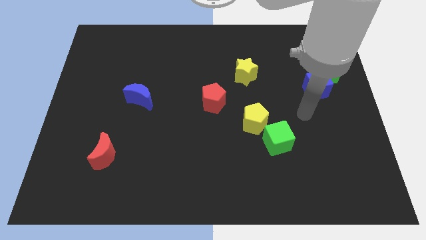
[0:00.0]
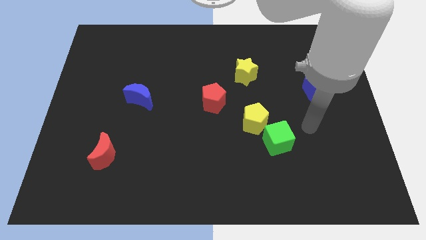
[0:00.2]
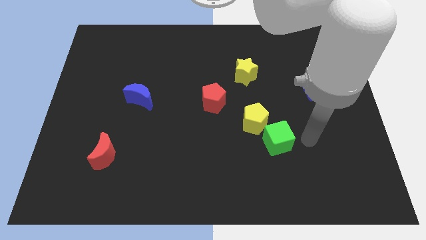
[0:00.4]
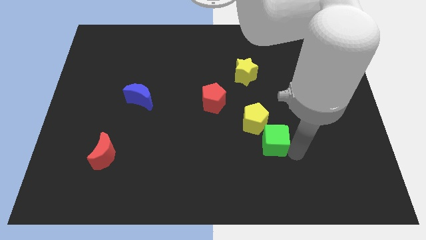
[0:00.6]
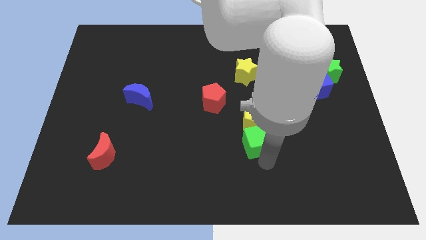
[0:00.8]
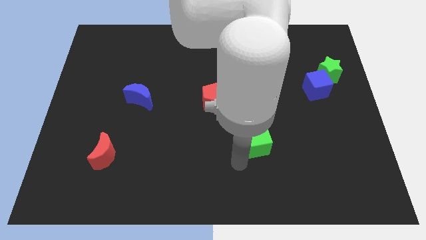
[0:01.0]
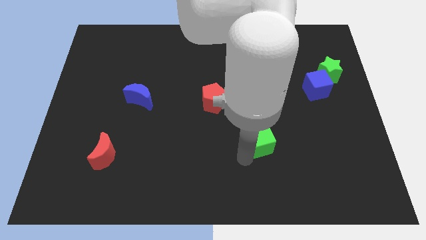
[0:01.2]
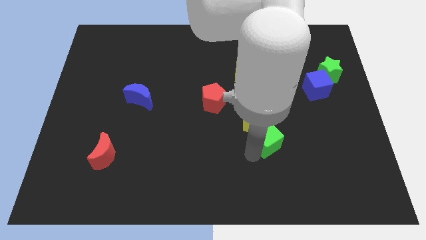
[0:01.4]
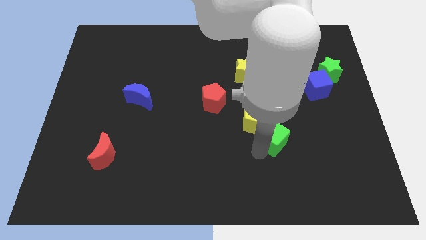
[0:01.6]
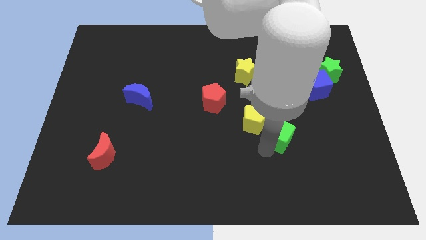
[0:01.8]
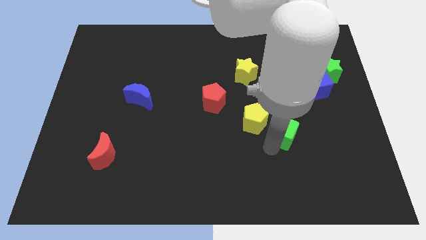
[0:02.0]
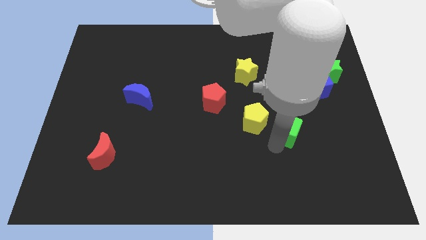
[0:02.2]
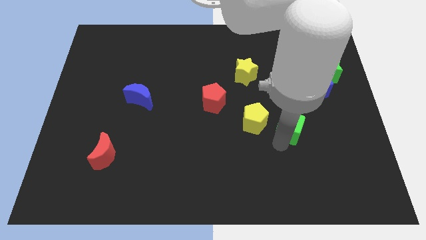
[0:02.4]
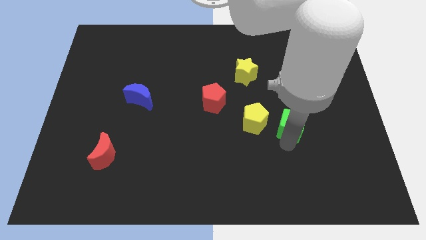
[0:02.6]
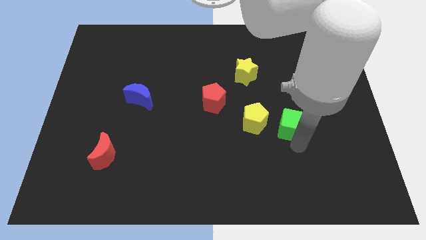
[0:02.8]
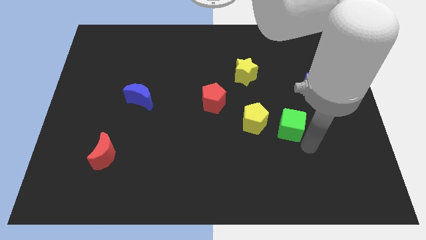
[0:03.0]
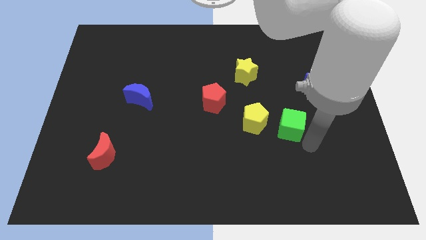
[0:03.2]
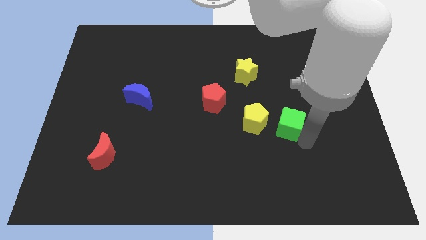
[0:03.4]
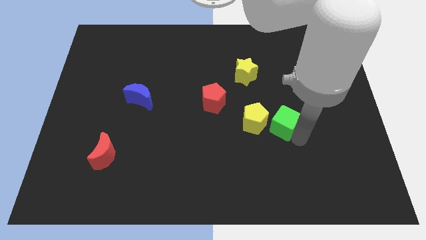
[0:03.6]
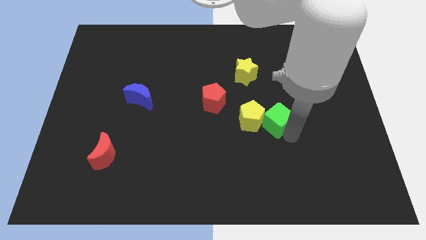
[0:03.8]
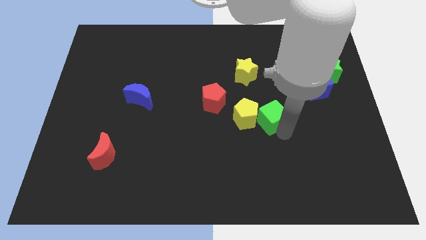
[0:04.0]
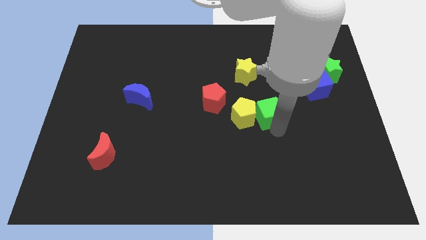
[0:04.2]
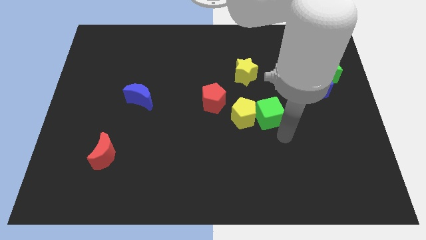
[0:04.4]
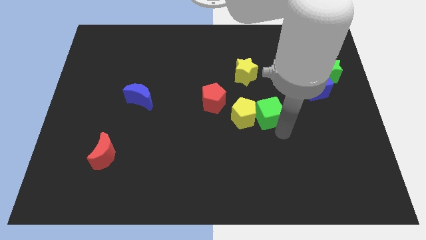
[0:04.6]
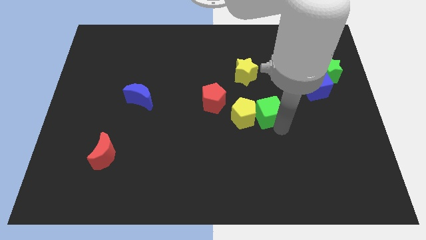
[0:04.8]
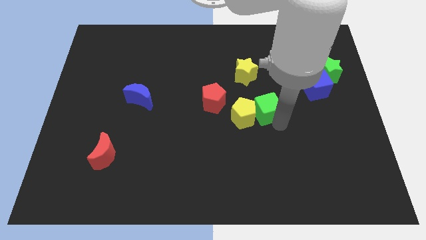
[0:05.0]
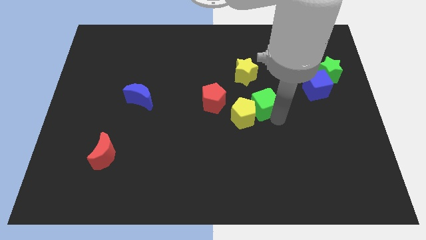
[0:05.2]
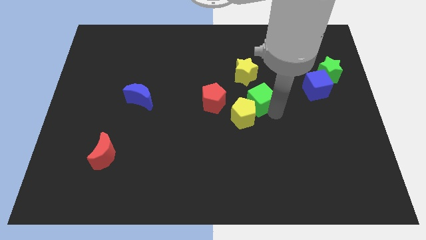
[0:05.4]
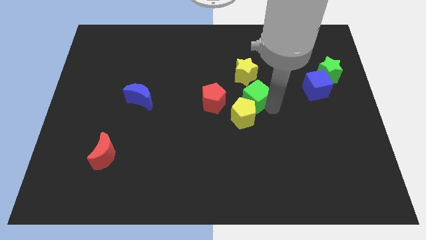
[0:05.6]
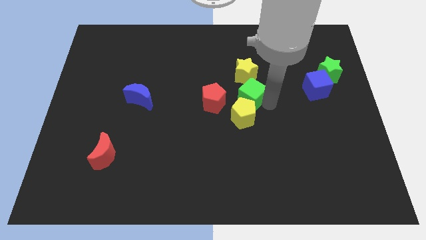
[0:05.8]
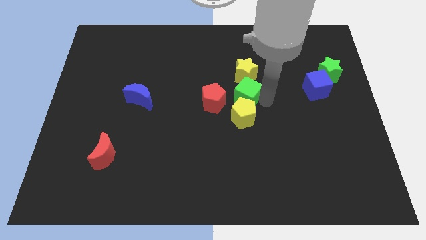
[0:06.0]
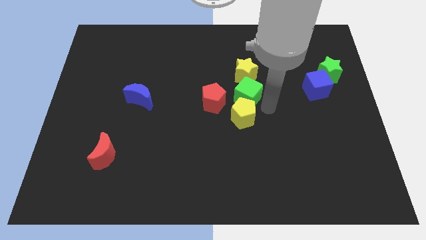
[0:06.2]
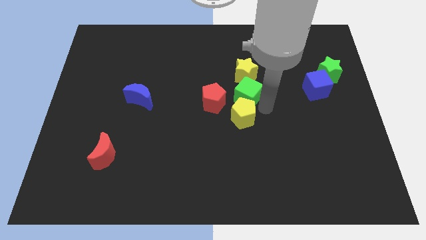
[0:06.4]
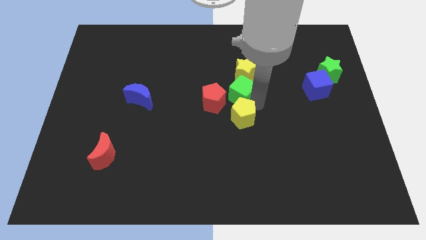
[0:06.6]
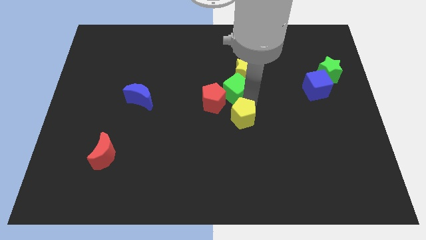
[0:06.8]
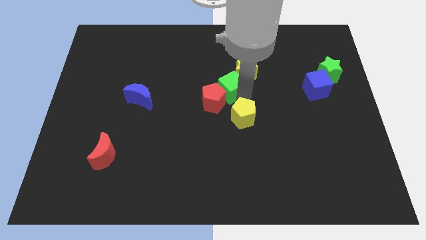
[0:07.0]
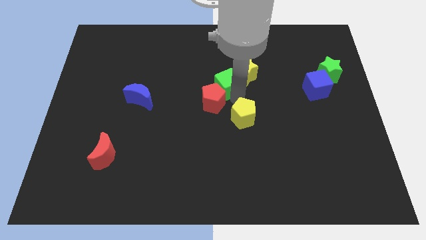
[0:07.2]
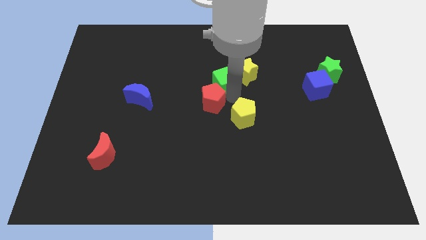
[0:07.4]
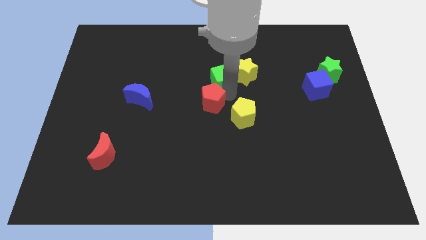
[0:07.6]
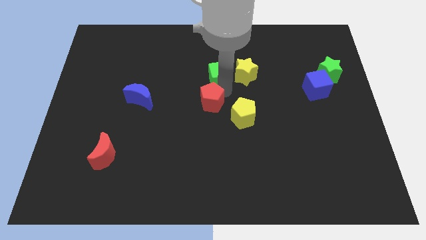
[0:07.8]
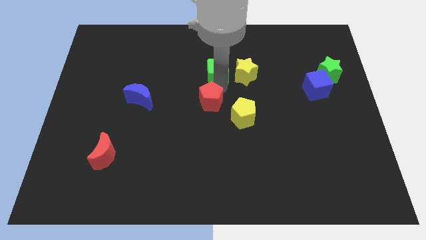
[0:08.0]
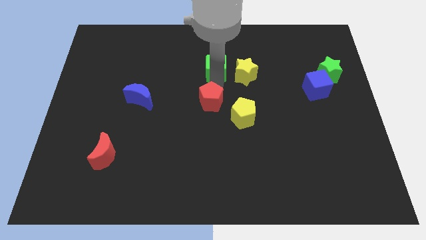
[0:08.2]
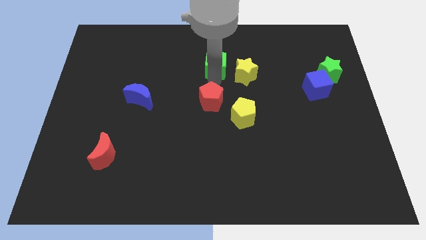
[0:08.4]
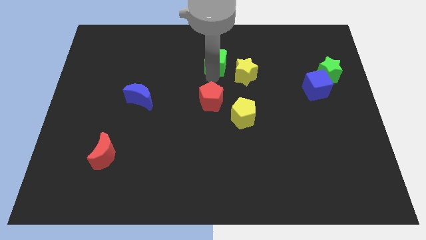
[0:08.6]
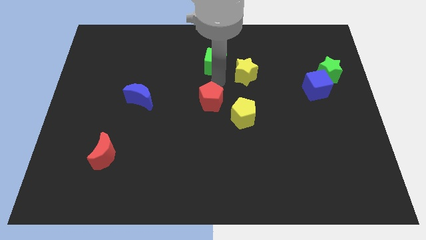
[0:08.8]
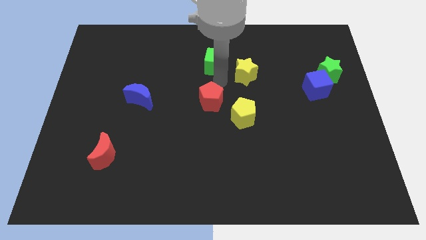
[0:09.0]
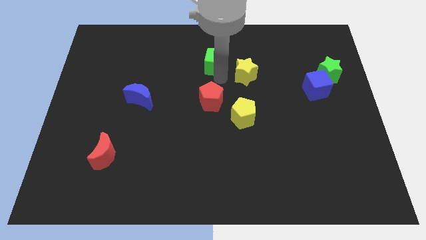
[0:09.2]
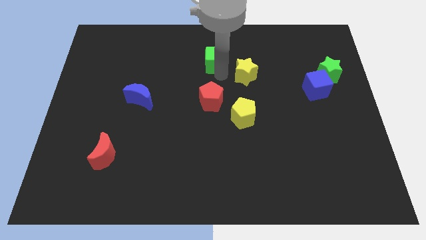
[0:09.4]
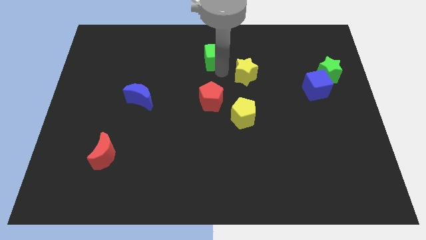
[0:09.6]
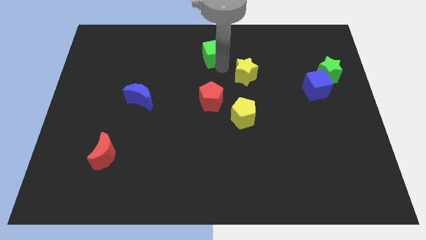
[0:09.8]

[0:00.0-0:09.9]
move the green cube to the top side

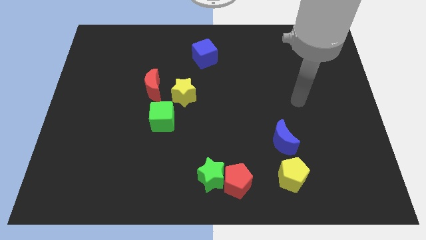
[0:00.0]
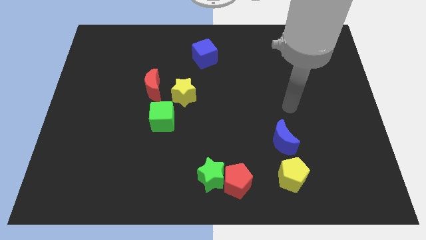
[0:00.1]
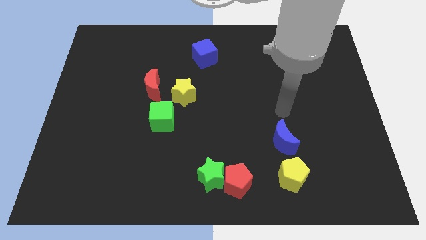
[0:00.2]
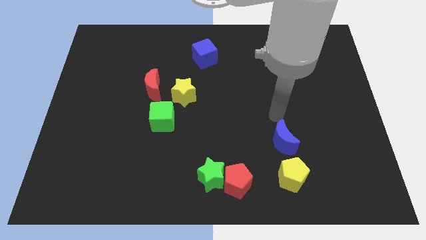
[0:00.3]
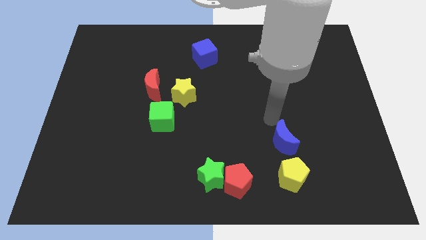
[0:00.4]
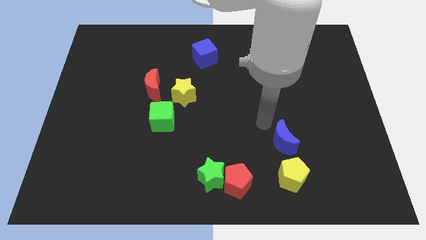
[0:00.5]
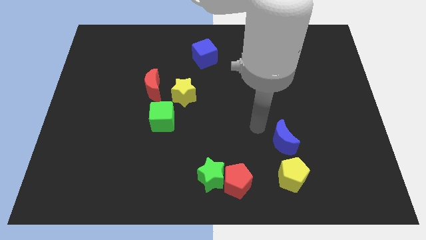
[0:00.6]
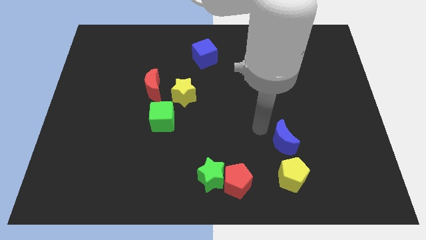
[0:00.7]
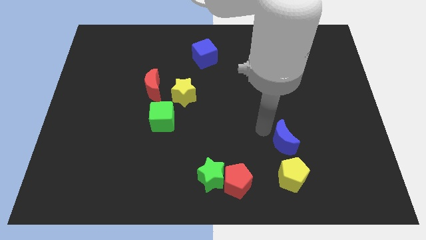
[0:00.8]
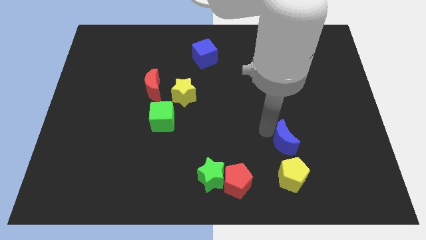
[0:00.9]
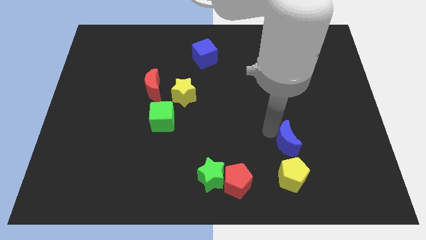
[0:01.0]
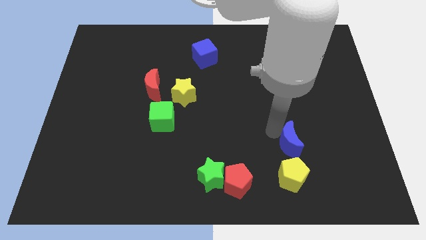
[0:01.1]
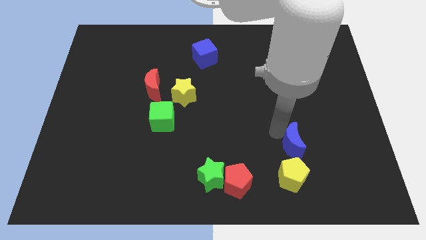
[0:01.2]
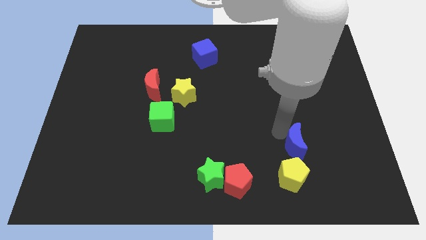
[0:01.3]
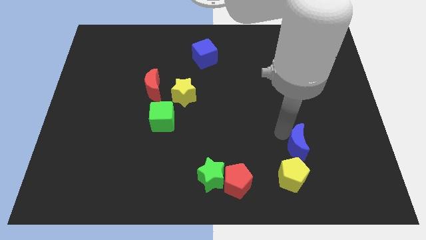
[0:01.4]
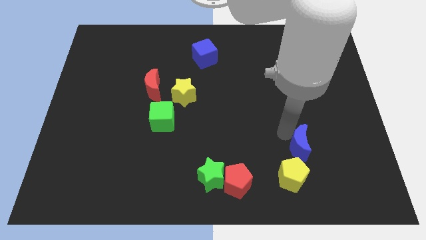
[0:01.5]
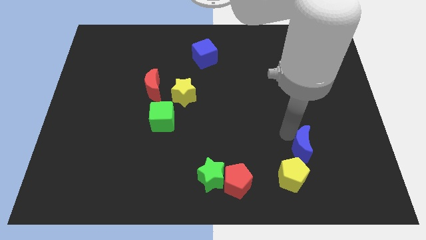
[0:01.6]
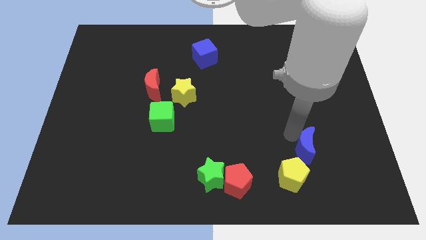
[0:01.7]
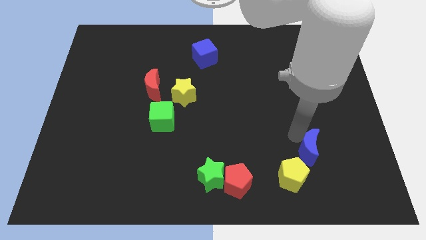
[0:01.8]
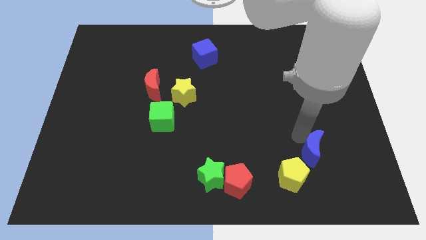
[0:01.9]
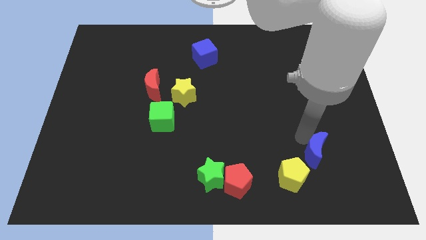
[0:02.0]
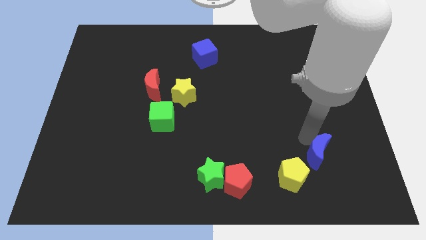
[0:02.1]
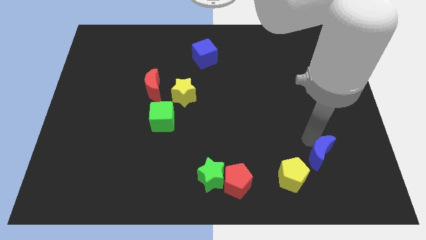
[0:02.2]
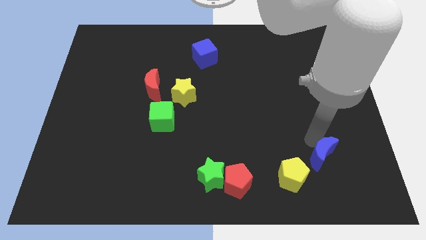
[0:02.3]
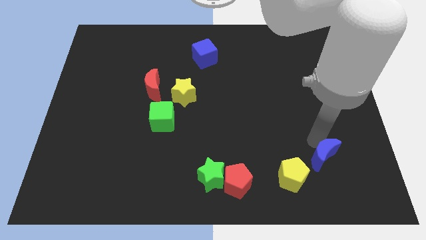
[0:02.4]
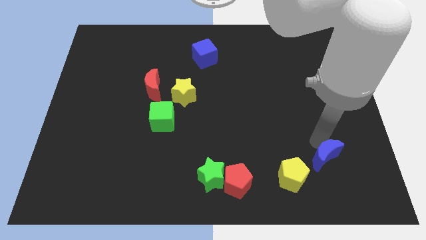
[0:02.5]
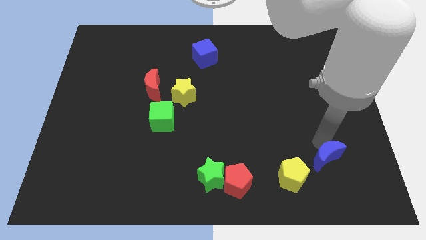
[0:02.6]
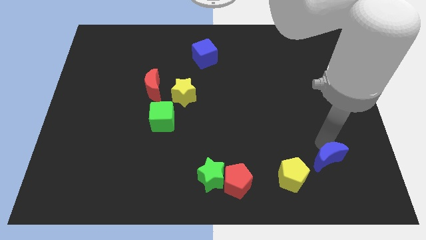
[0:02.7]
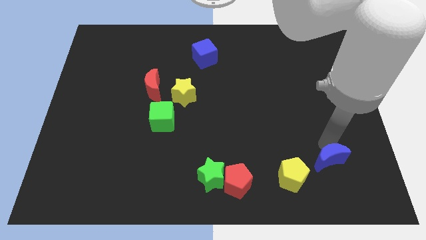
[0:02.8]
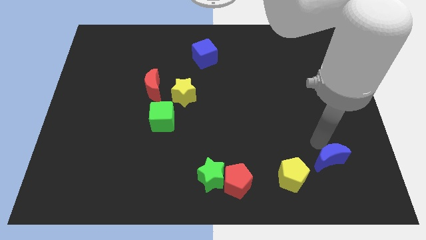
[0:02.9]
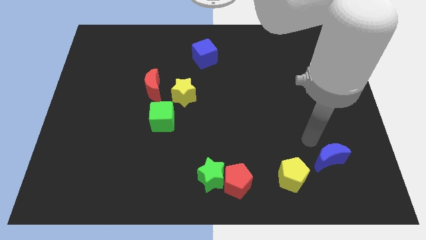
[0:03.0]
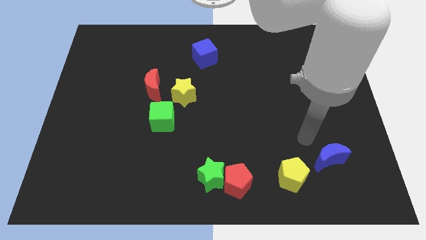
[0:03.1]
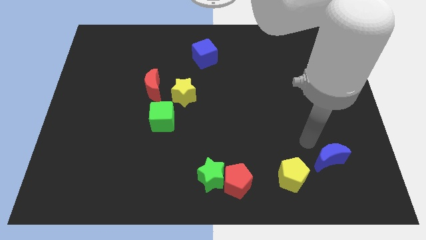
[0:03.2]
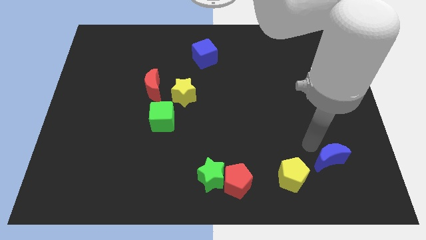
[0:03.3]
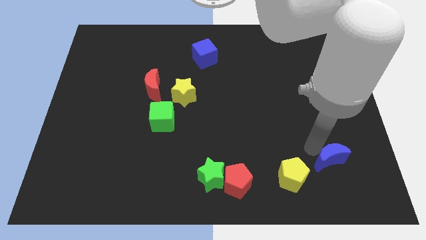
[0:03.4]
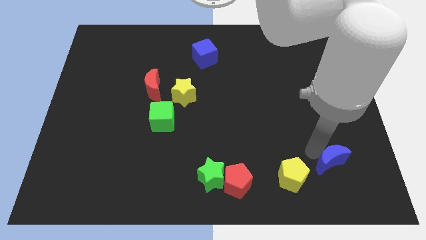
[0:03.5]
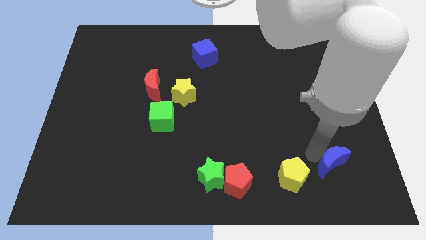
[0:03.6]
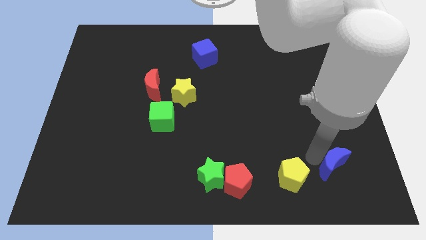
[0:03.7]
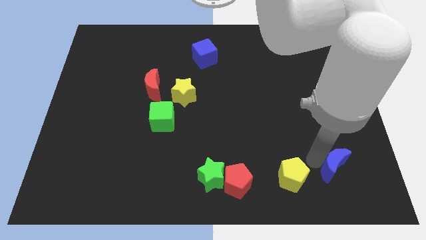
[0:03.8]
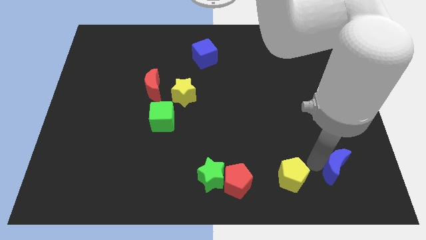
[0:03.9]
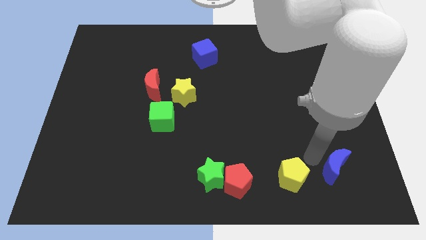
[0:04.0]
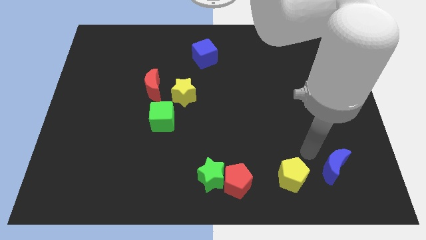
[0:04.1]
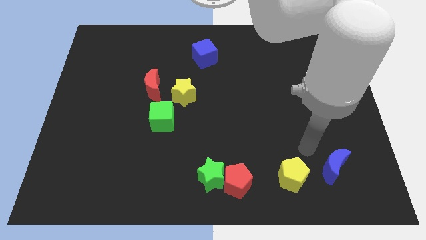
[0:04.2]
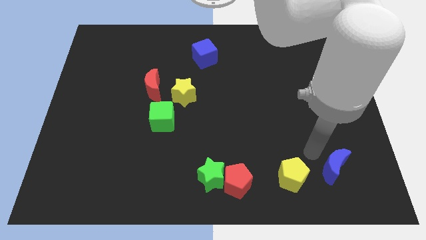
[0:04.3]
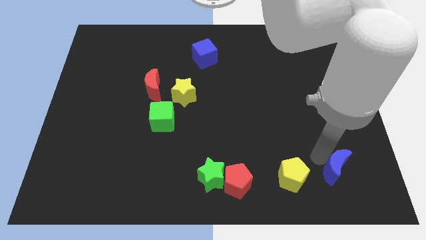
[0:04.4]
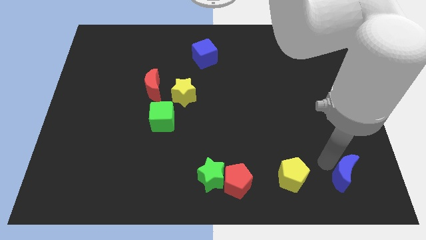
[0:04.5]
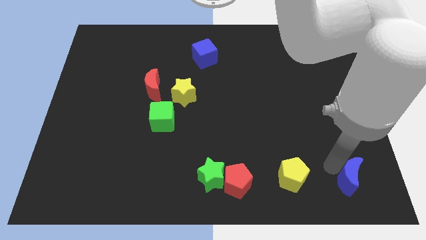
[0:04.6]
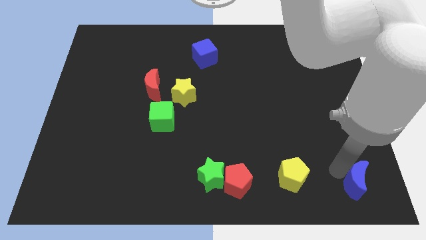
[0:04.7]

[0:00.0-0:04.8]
put the blue moon to the bottom right corner
